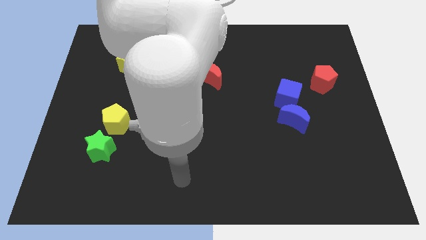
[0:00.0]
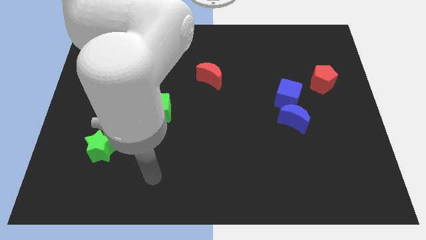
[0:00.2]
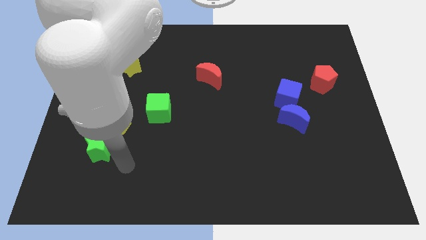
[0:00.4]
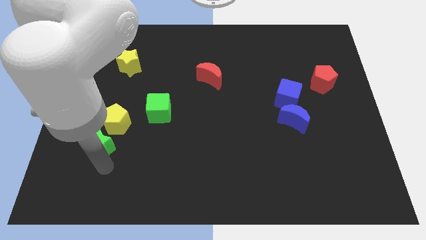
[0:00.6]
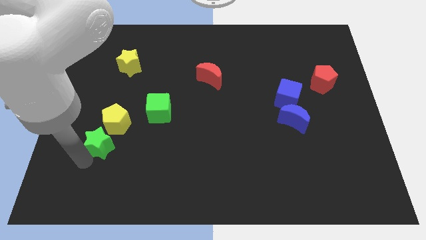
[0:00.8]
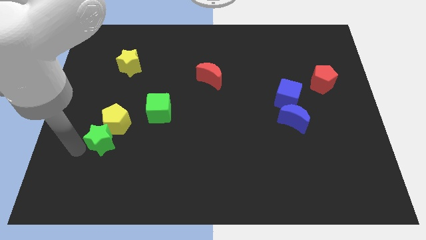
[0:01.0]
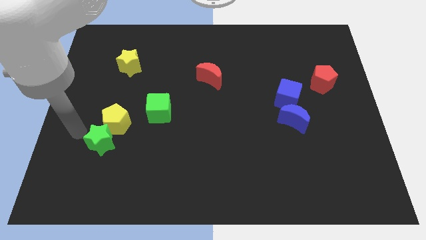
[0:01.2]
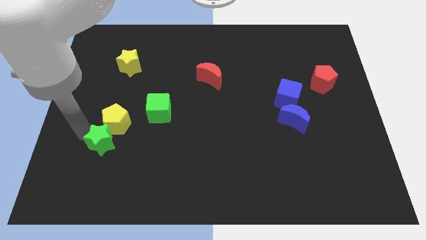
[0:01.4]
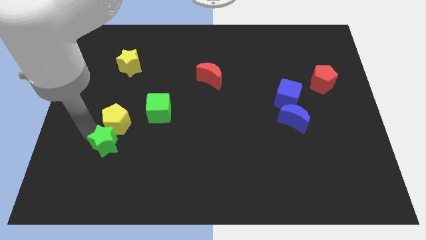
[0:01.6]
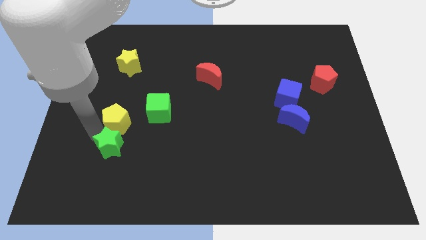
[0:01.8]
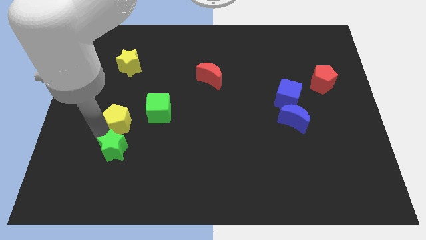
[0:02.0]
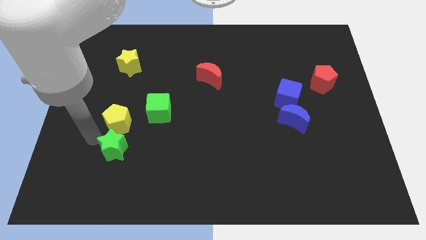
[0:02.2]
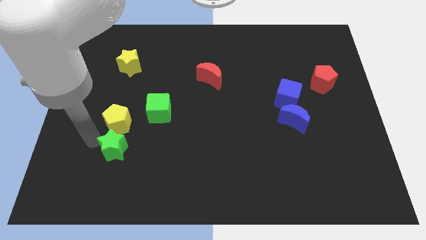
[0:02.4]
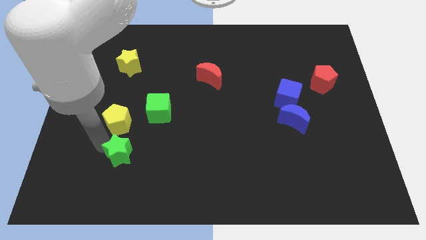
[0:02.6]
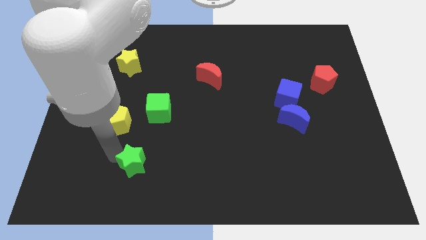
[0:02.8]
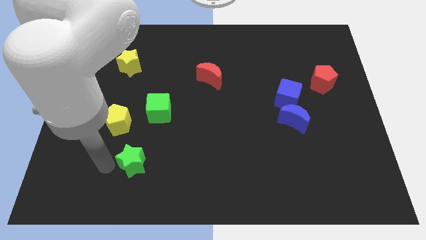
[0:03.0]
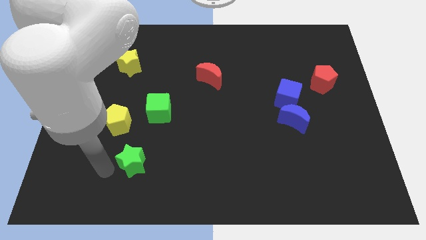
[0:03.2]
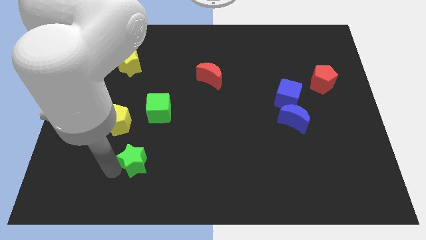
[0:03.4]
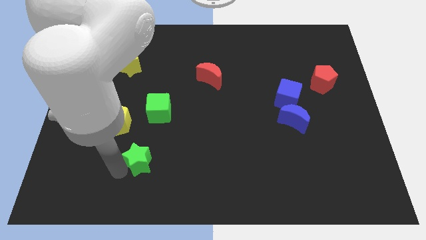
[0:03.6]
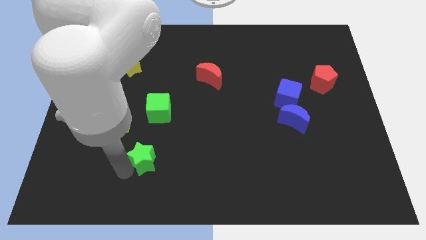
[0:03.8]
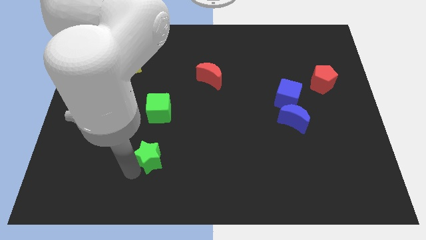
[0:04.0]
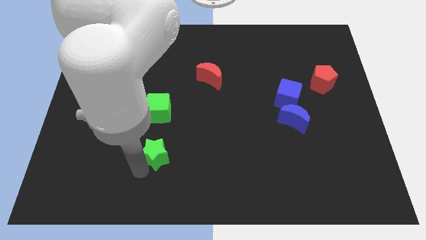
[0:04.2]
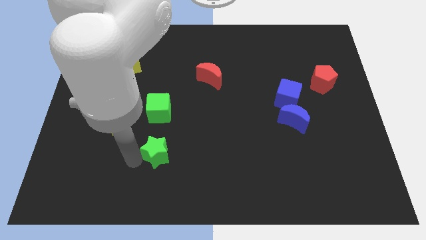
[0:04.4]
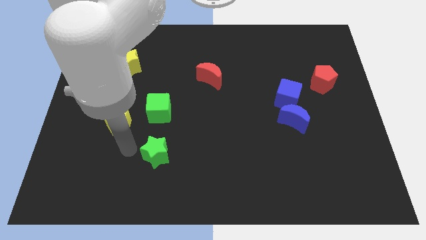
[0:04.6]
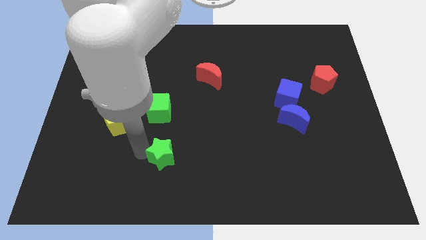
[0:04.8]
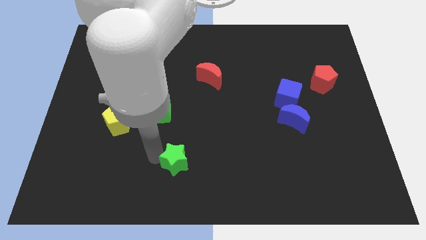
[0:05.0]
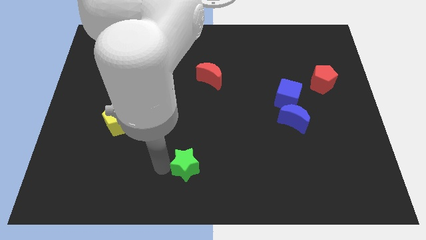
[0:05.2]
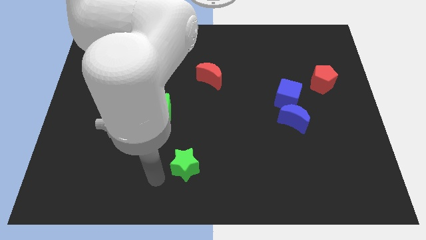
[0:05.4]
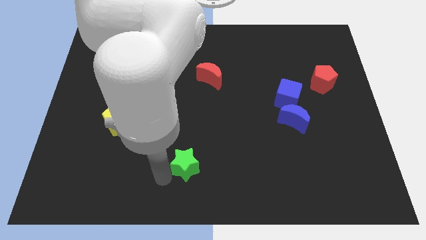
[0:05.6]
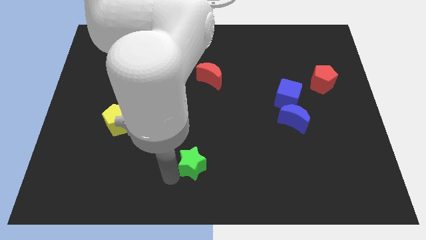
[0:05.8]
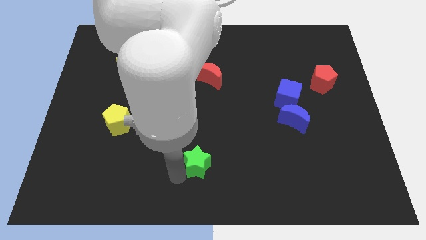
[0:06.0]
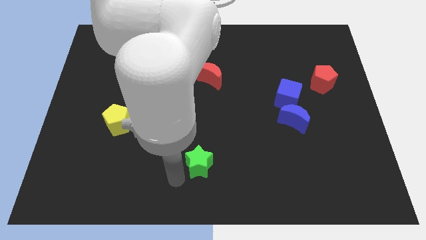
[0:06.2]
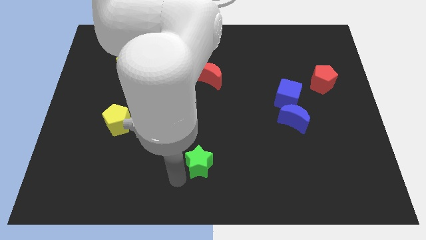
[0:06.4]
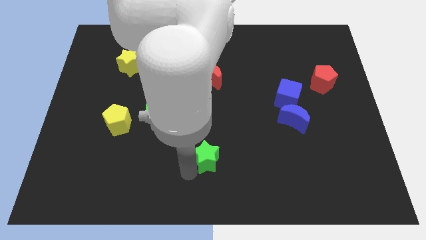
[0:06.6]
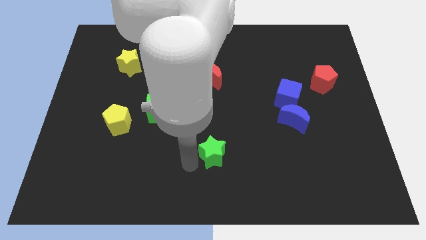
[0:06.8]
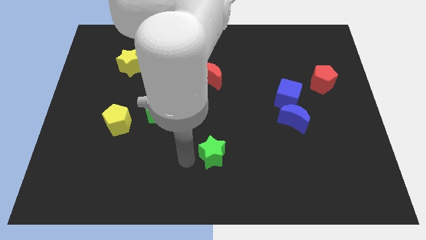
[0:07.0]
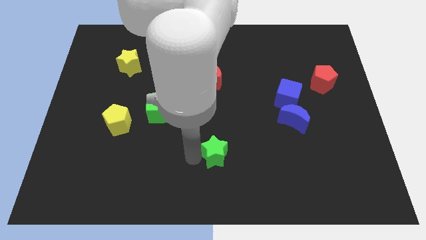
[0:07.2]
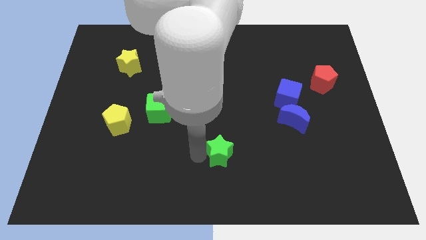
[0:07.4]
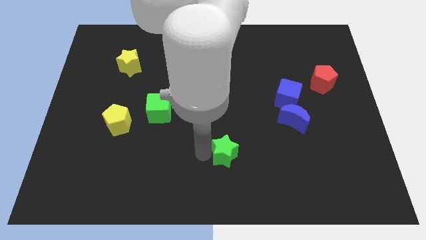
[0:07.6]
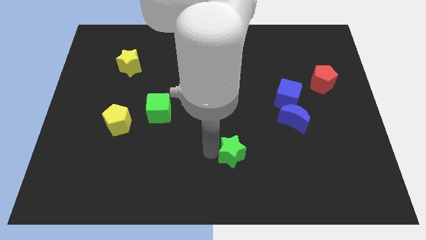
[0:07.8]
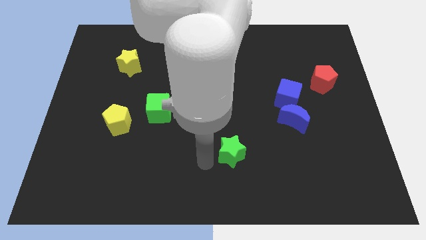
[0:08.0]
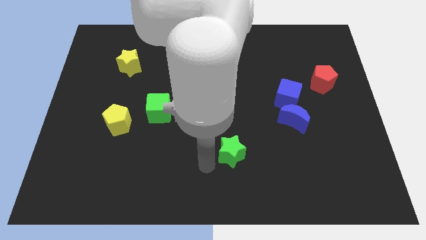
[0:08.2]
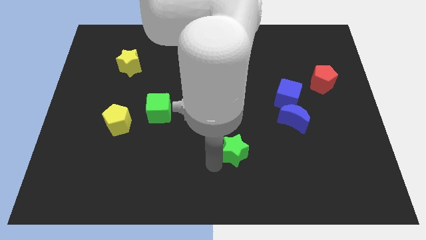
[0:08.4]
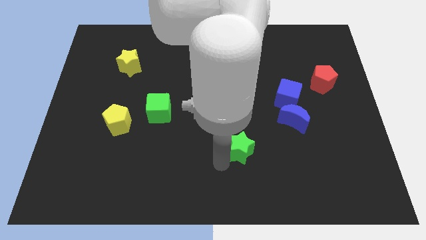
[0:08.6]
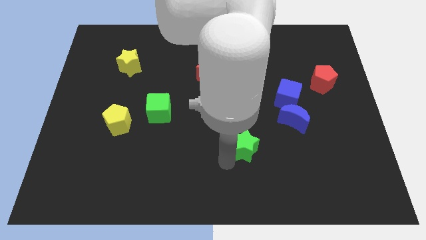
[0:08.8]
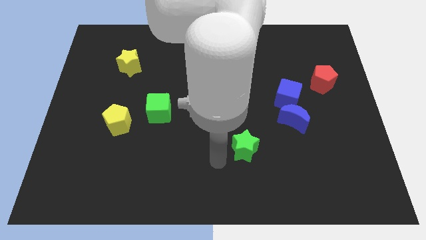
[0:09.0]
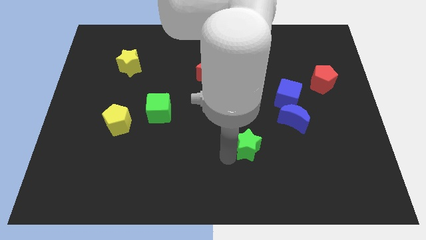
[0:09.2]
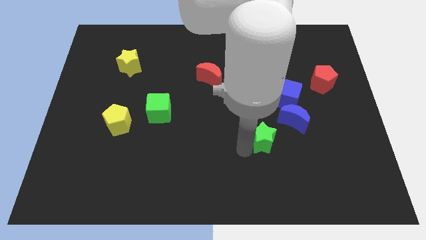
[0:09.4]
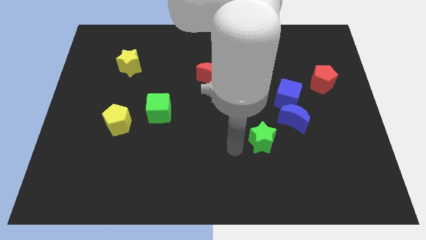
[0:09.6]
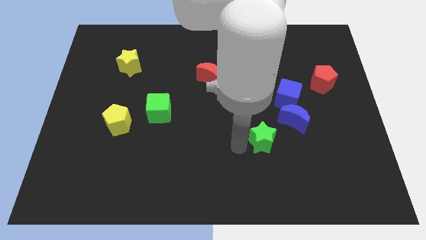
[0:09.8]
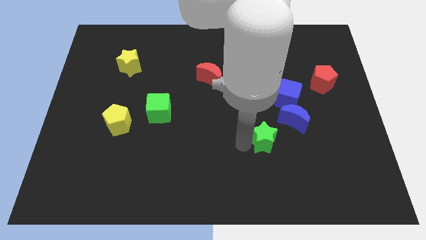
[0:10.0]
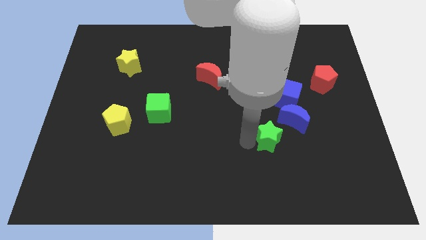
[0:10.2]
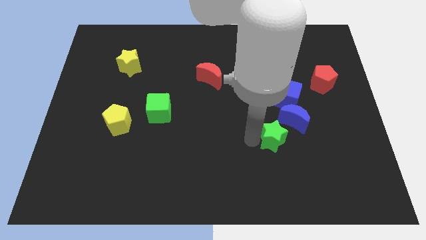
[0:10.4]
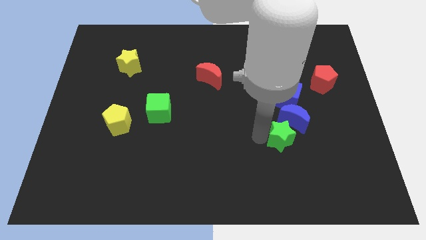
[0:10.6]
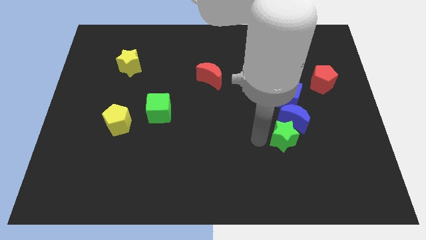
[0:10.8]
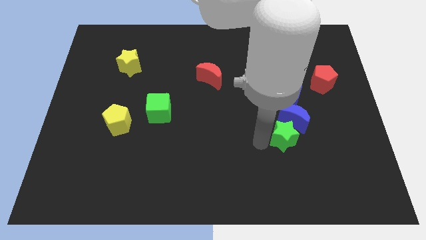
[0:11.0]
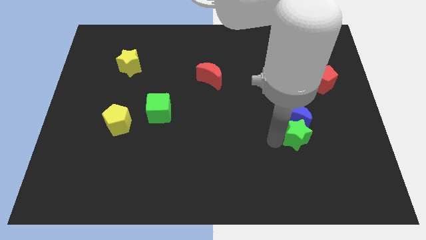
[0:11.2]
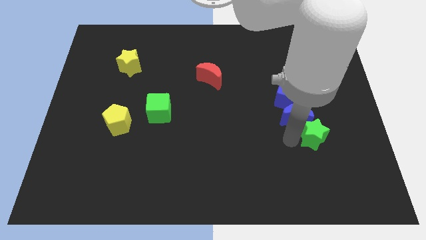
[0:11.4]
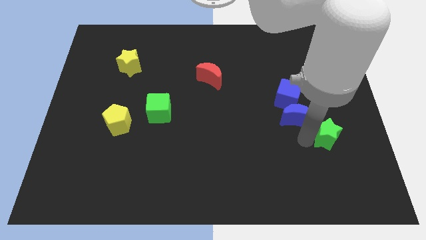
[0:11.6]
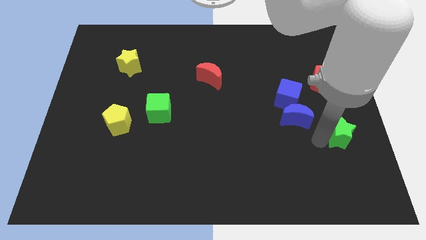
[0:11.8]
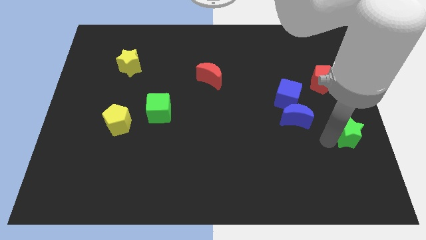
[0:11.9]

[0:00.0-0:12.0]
push the green star to the center right
